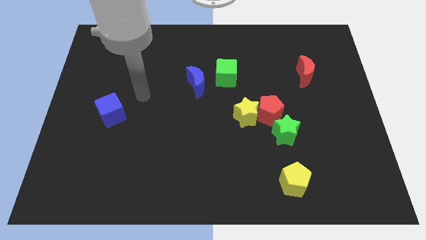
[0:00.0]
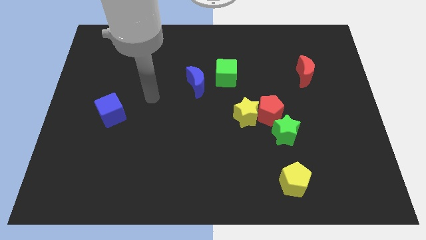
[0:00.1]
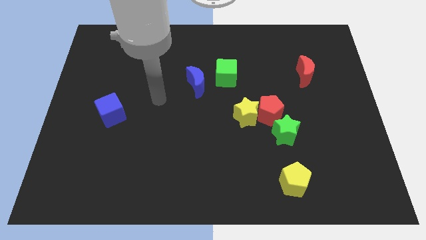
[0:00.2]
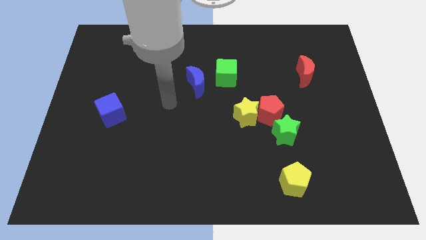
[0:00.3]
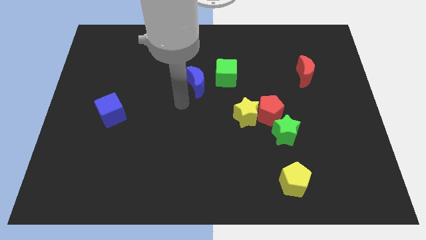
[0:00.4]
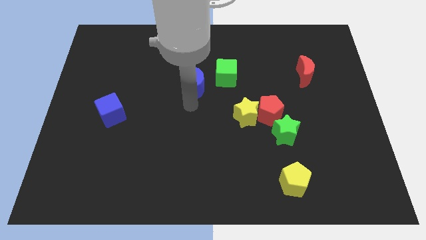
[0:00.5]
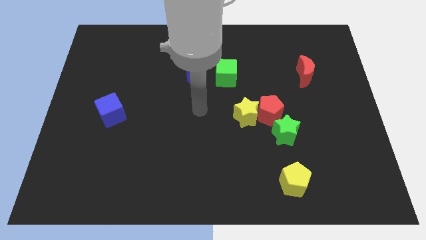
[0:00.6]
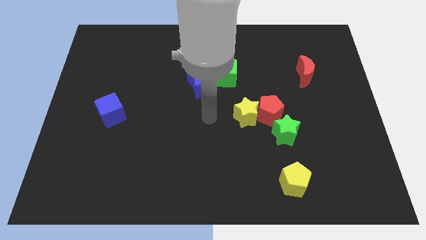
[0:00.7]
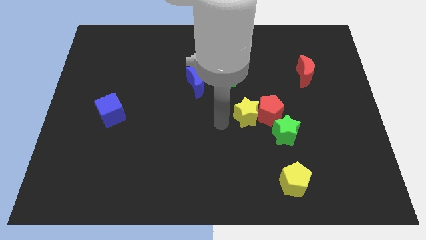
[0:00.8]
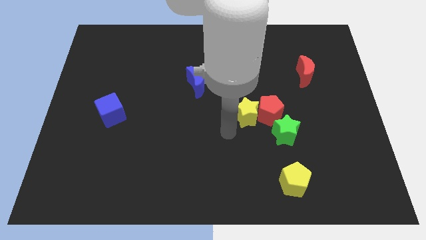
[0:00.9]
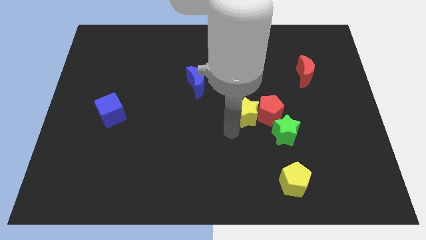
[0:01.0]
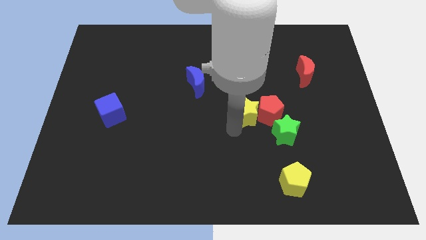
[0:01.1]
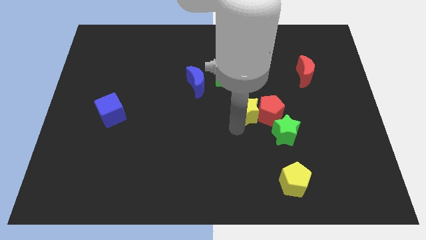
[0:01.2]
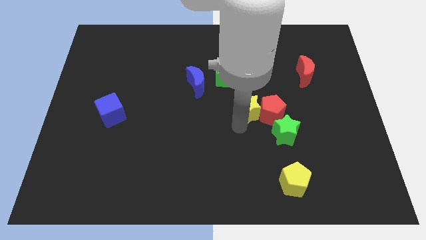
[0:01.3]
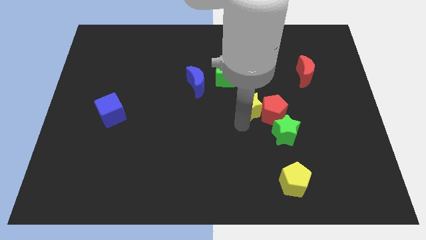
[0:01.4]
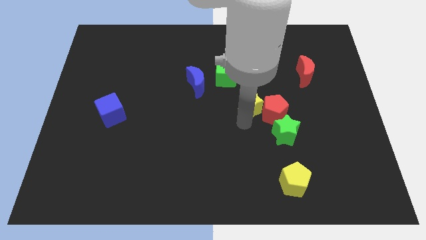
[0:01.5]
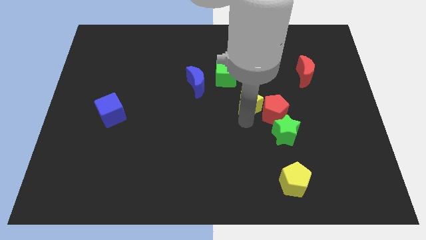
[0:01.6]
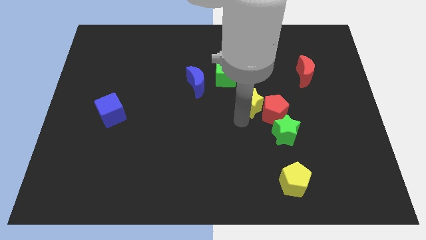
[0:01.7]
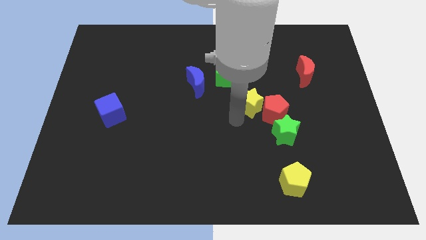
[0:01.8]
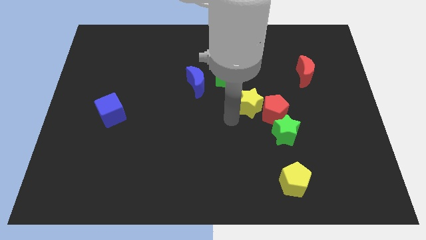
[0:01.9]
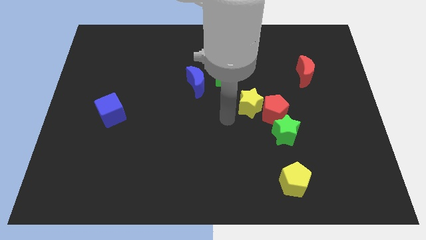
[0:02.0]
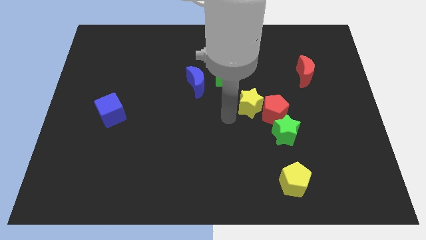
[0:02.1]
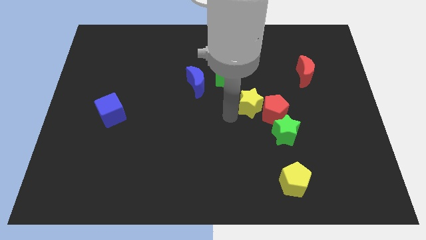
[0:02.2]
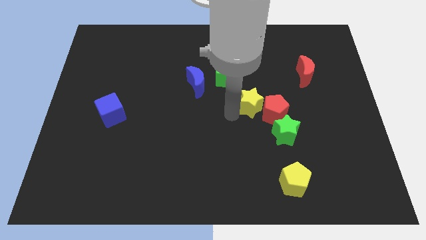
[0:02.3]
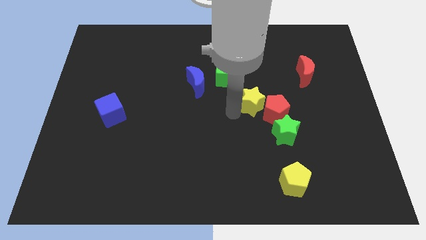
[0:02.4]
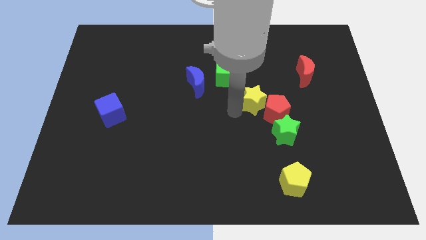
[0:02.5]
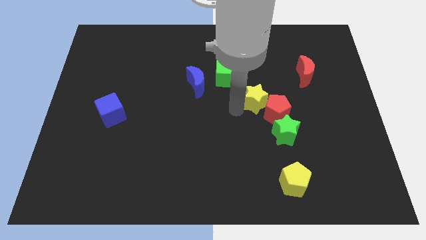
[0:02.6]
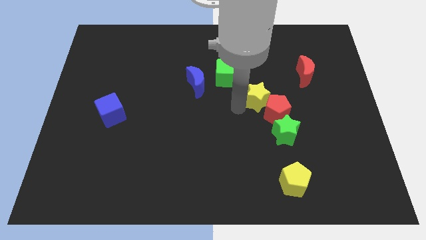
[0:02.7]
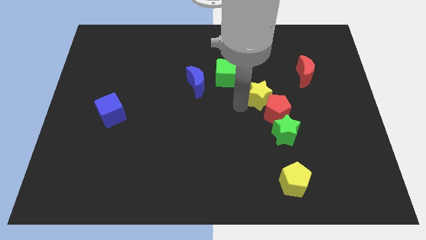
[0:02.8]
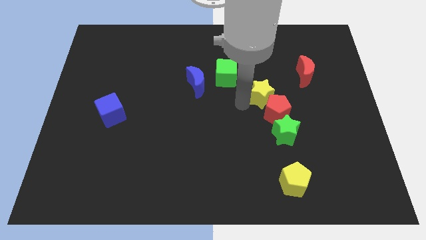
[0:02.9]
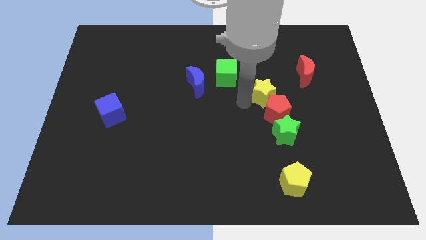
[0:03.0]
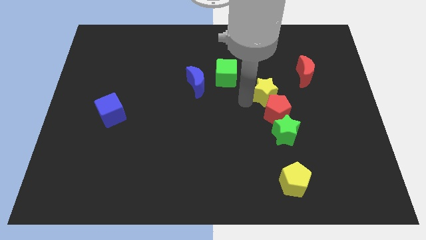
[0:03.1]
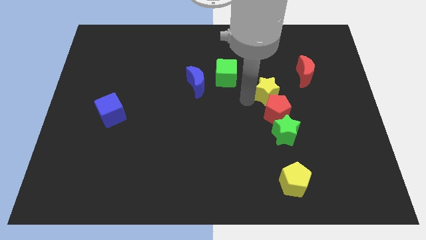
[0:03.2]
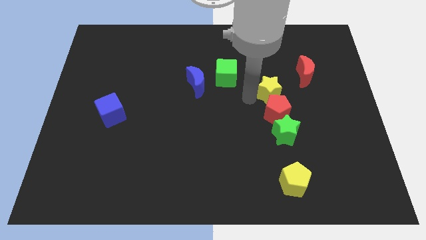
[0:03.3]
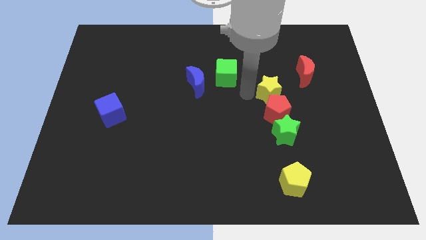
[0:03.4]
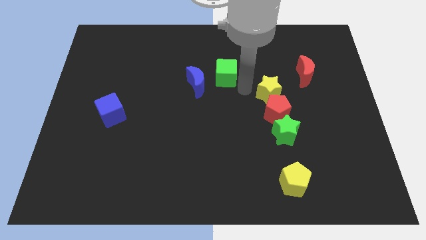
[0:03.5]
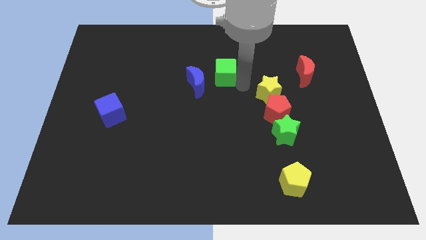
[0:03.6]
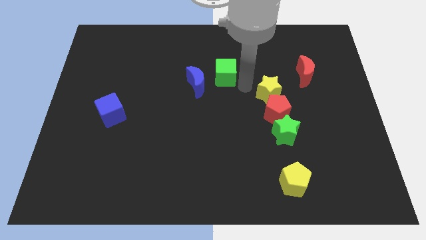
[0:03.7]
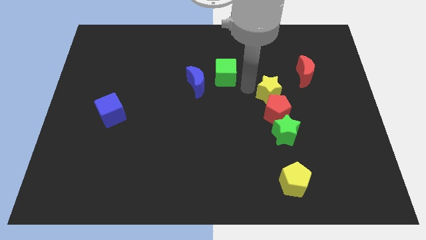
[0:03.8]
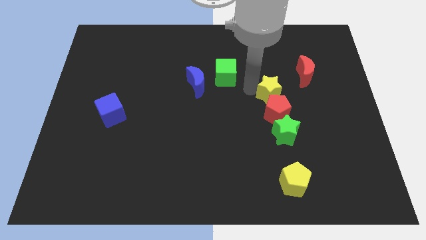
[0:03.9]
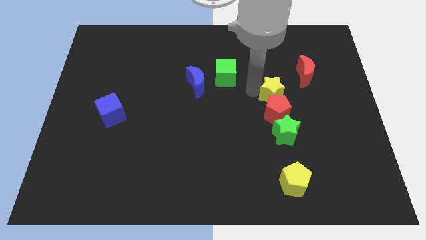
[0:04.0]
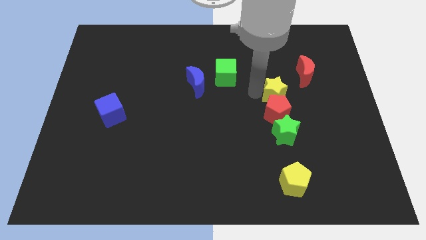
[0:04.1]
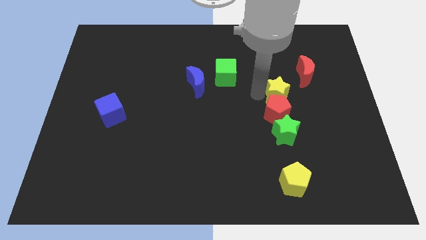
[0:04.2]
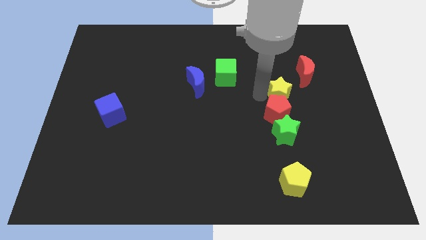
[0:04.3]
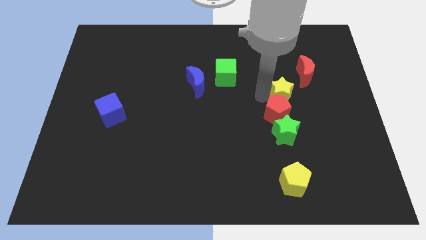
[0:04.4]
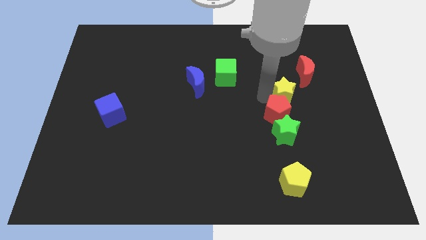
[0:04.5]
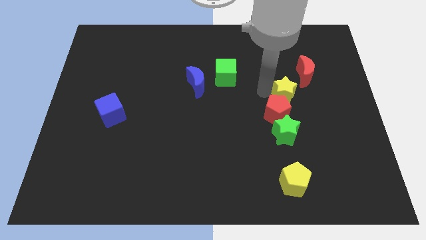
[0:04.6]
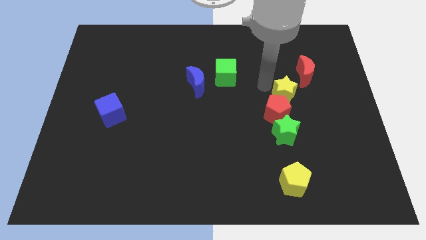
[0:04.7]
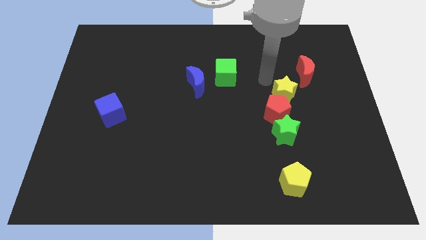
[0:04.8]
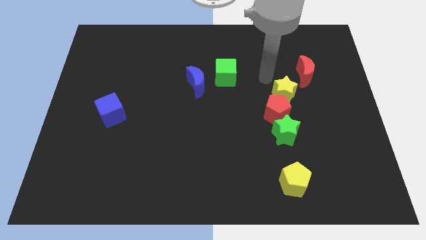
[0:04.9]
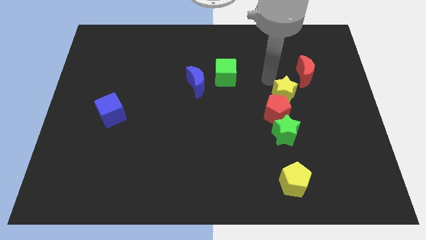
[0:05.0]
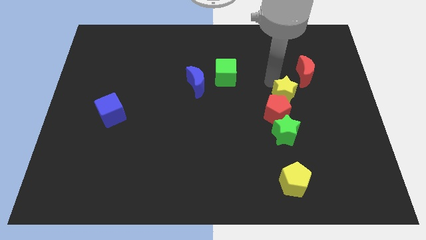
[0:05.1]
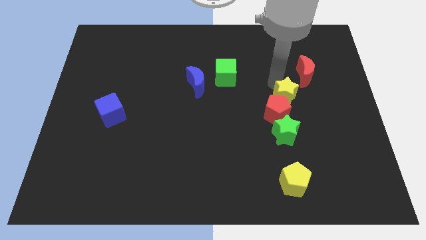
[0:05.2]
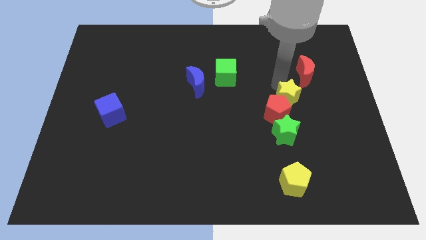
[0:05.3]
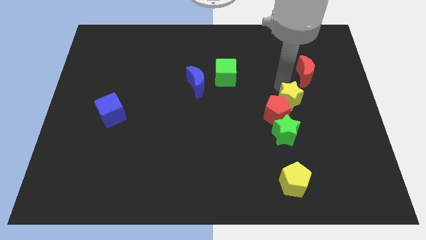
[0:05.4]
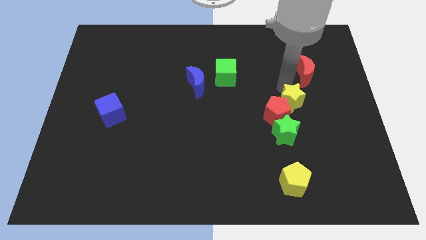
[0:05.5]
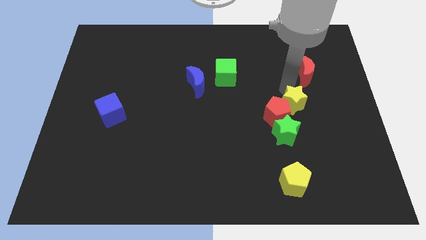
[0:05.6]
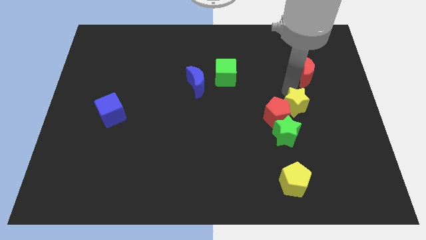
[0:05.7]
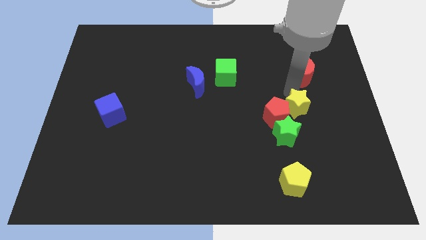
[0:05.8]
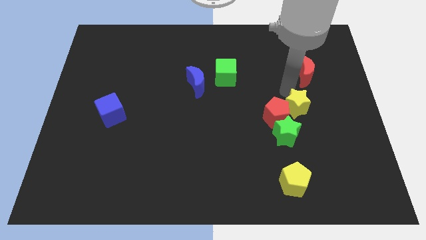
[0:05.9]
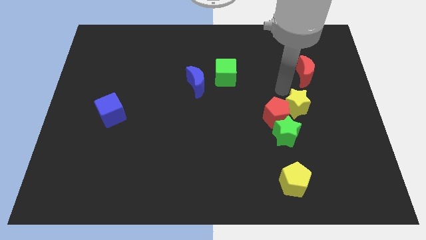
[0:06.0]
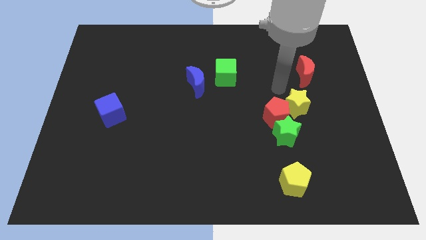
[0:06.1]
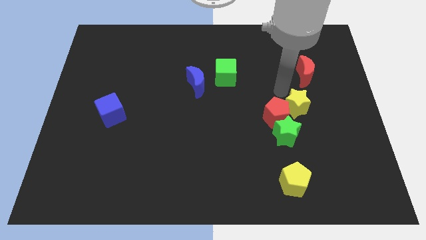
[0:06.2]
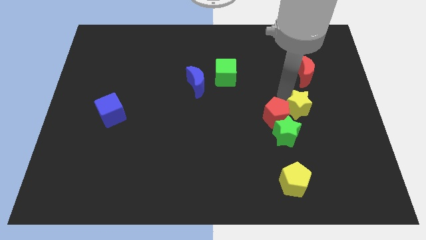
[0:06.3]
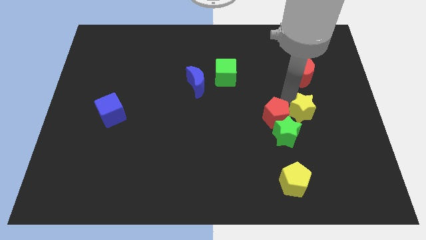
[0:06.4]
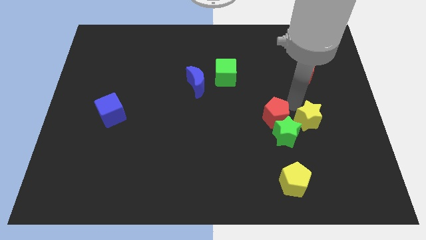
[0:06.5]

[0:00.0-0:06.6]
slide the yellow star just right of the green star
